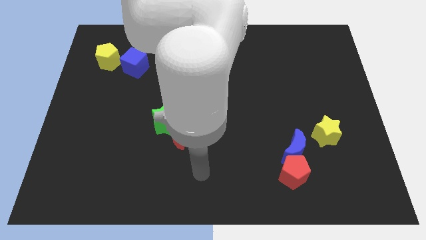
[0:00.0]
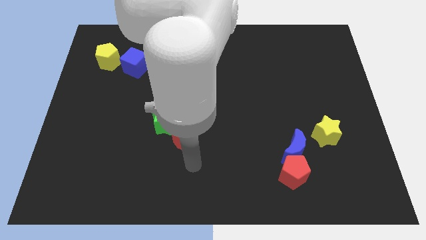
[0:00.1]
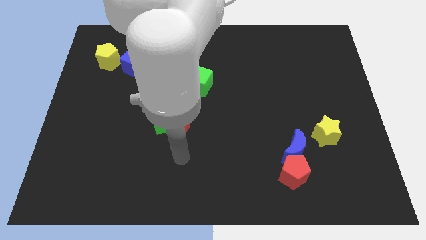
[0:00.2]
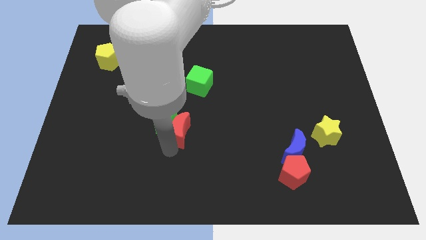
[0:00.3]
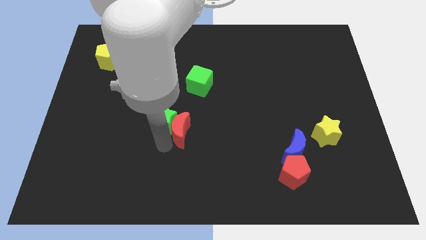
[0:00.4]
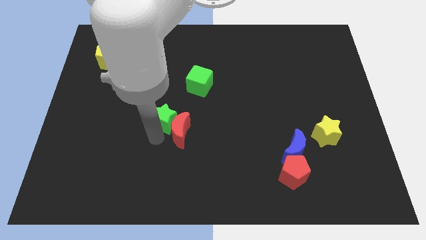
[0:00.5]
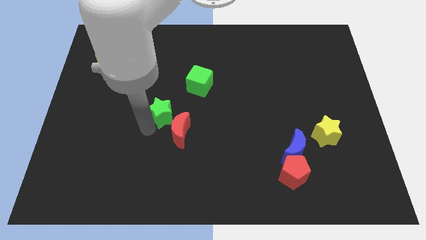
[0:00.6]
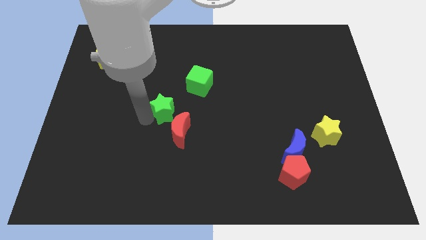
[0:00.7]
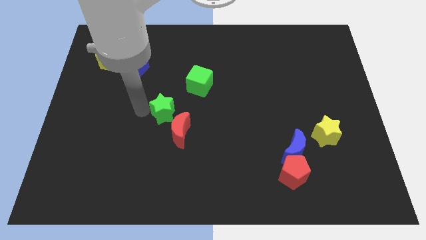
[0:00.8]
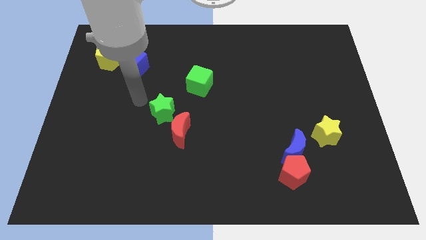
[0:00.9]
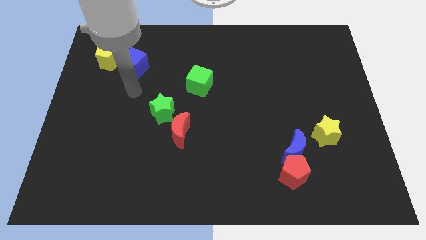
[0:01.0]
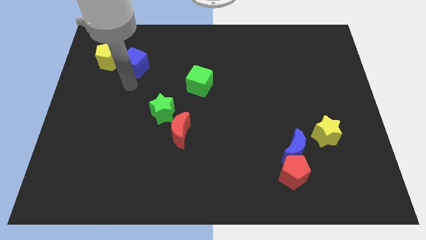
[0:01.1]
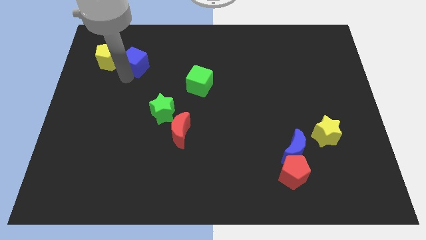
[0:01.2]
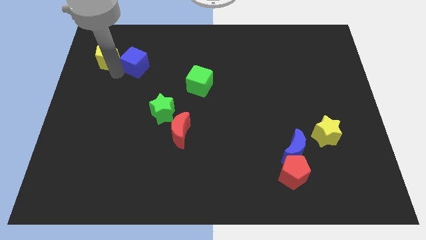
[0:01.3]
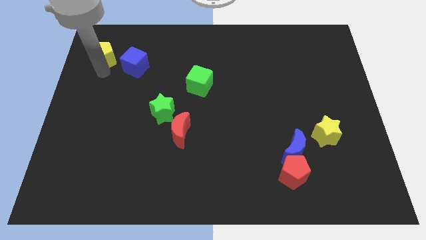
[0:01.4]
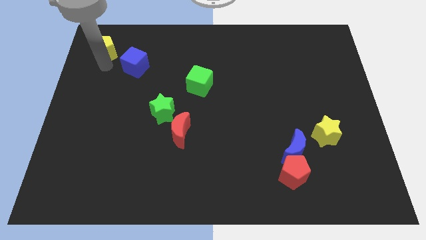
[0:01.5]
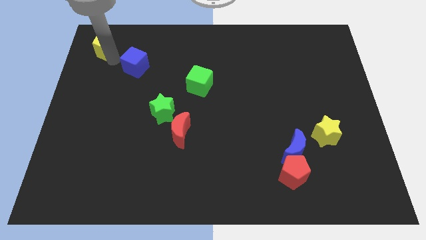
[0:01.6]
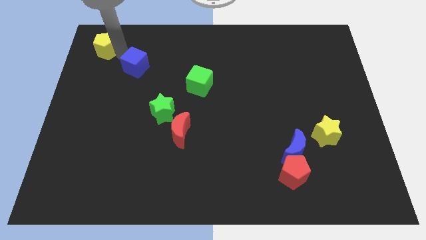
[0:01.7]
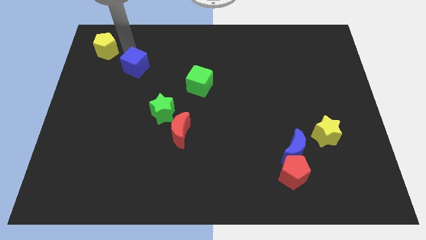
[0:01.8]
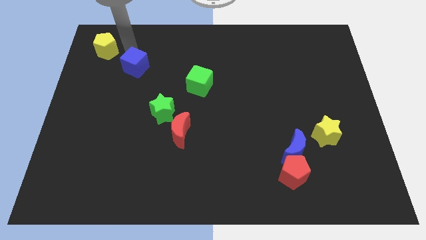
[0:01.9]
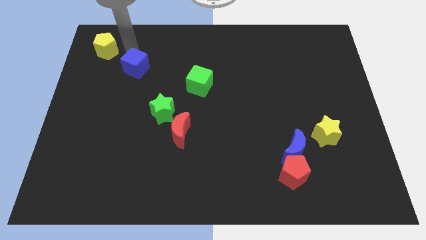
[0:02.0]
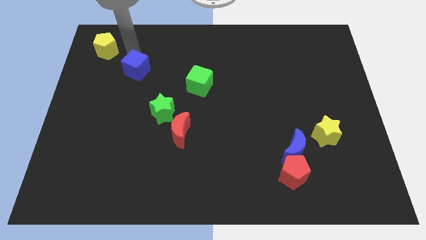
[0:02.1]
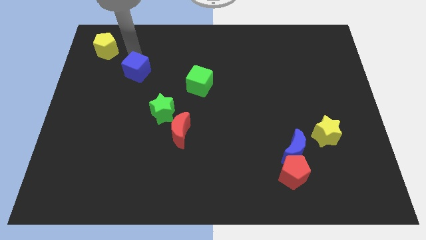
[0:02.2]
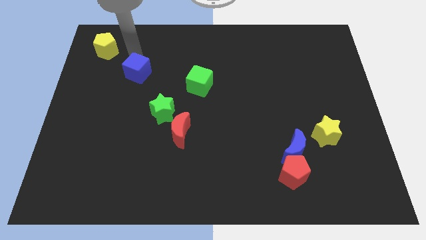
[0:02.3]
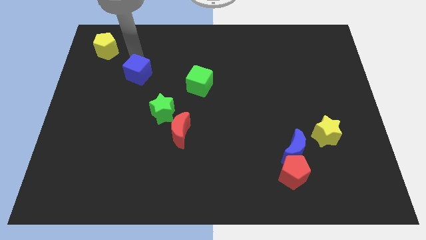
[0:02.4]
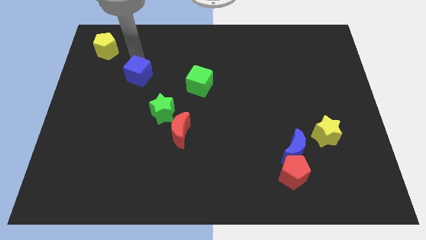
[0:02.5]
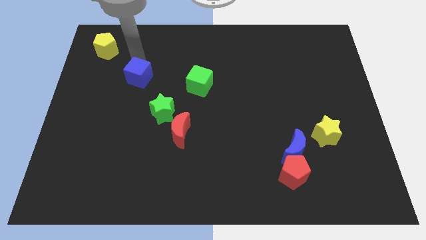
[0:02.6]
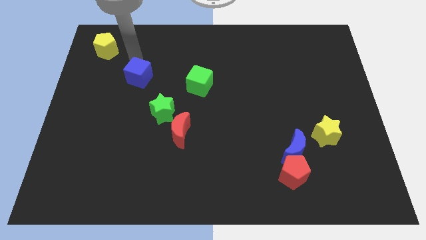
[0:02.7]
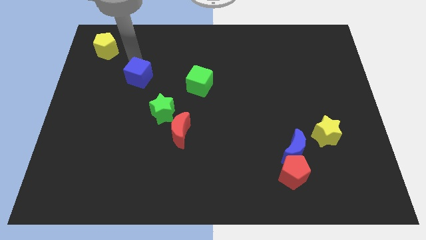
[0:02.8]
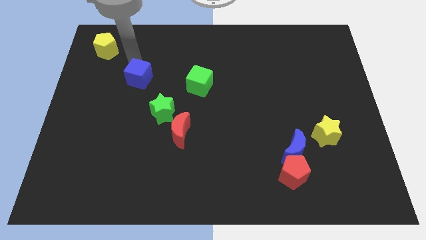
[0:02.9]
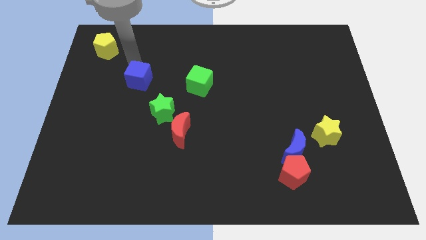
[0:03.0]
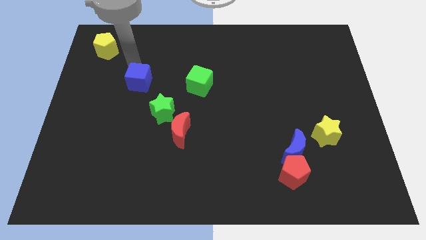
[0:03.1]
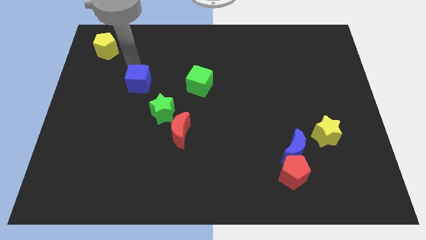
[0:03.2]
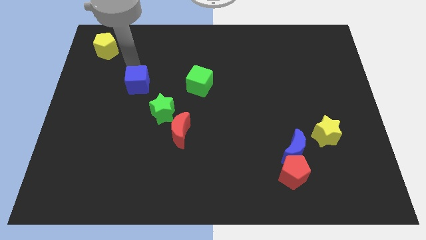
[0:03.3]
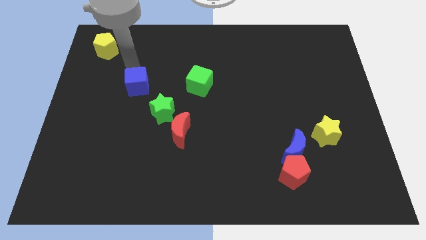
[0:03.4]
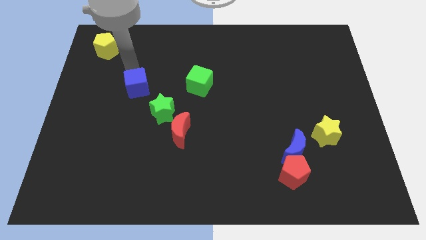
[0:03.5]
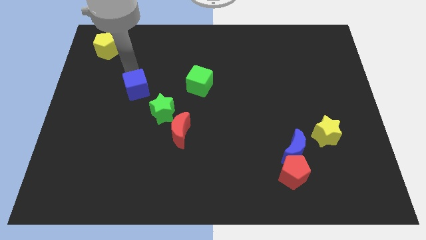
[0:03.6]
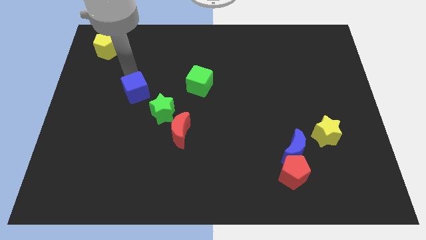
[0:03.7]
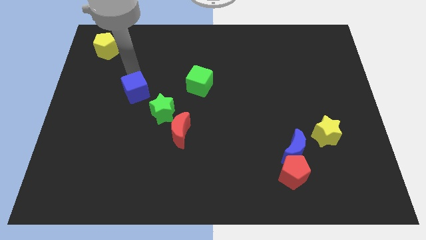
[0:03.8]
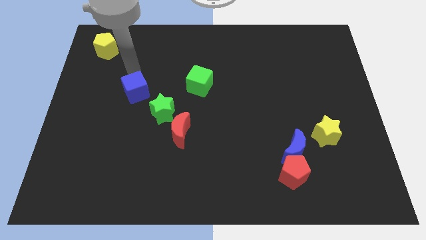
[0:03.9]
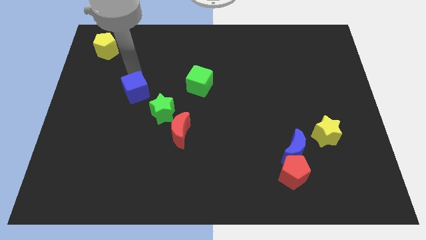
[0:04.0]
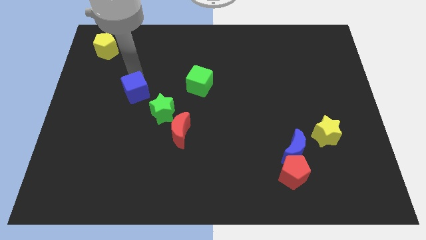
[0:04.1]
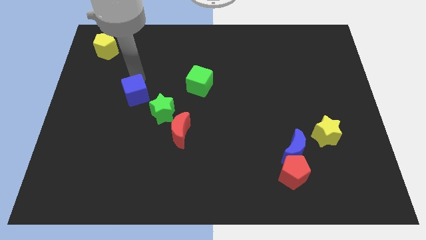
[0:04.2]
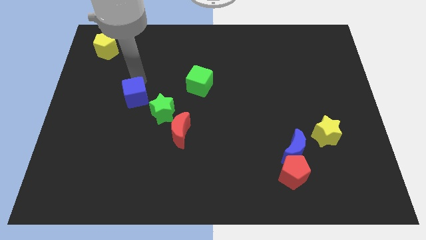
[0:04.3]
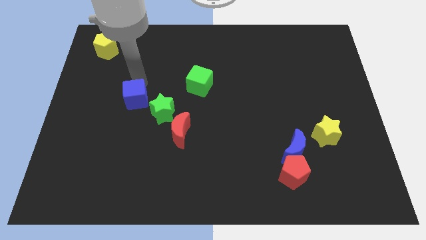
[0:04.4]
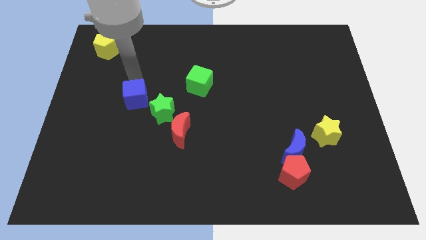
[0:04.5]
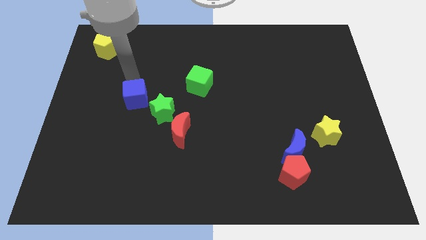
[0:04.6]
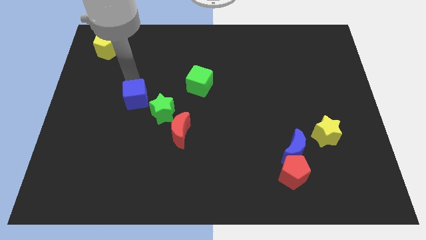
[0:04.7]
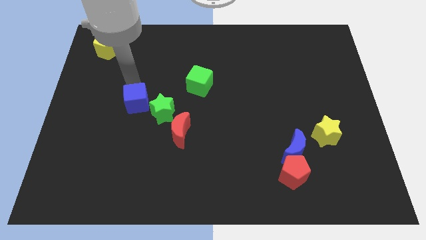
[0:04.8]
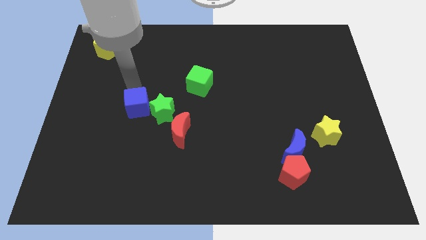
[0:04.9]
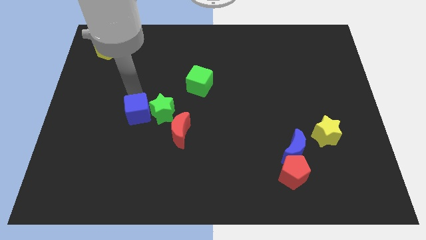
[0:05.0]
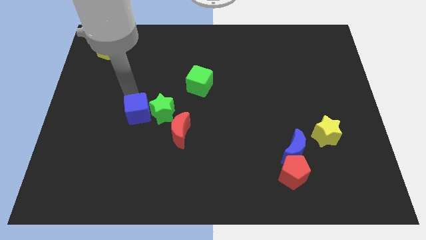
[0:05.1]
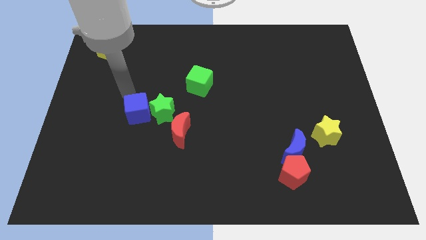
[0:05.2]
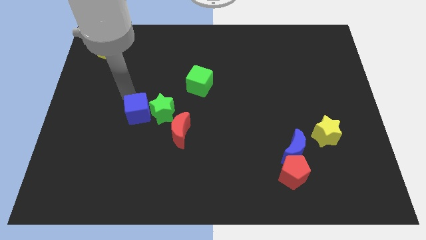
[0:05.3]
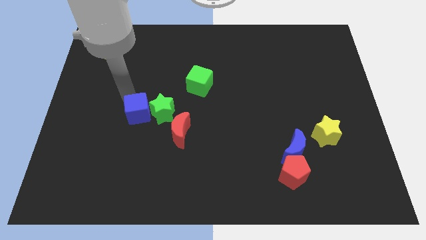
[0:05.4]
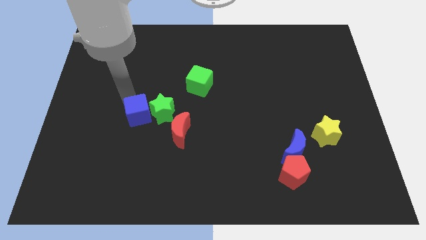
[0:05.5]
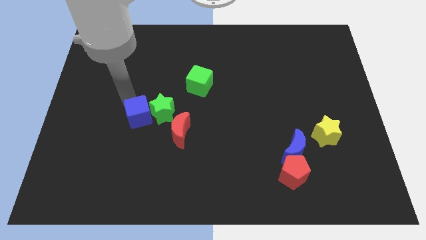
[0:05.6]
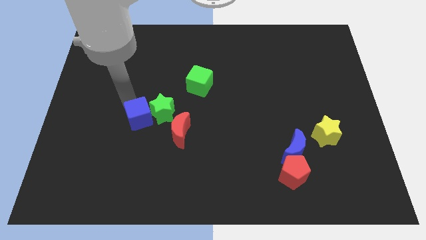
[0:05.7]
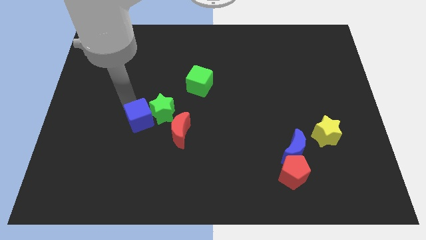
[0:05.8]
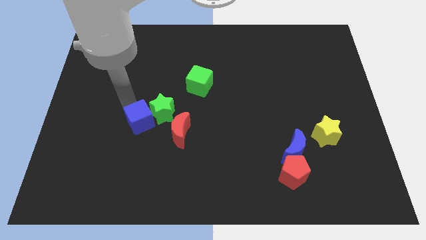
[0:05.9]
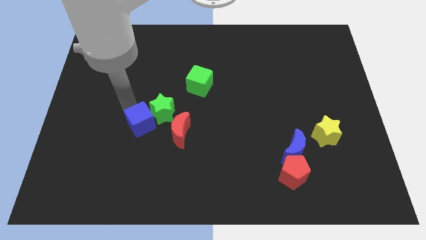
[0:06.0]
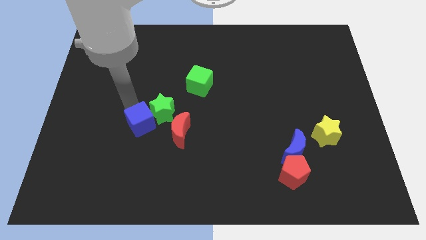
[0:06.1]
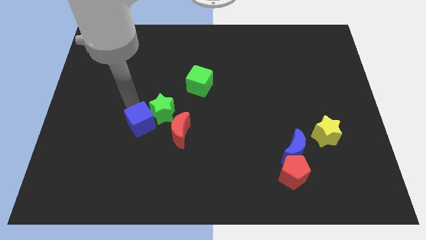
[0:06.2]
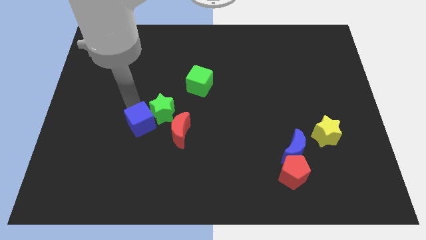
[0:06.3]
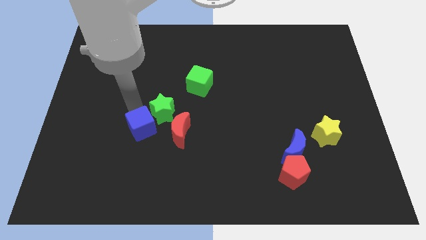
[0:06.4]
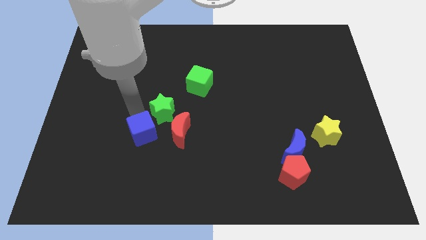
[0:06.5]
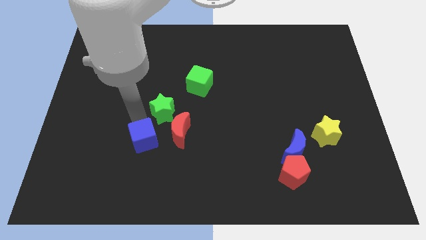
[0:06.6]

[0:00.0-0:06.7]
put the blue cube to the bottom left of the red moon
